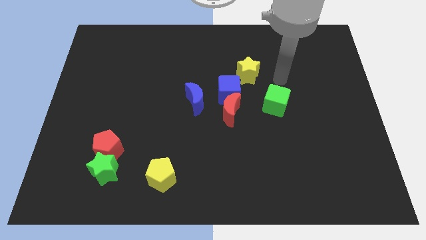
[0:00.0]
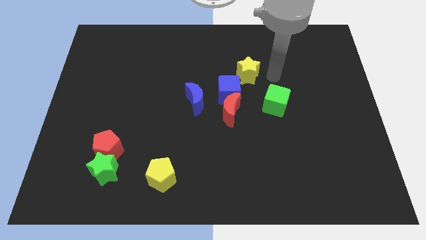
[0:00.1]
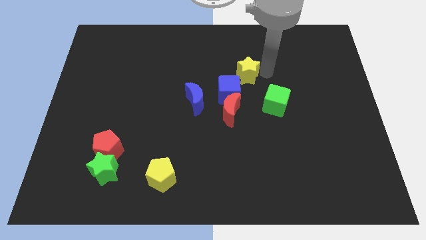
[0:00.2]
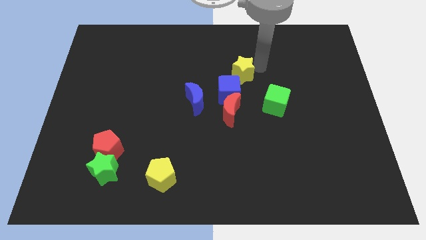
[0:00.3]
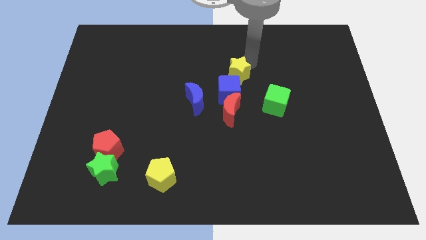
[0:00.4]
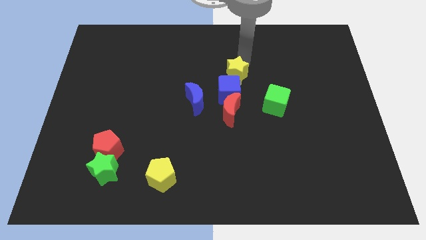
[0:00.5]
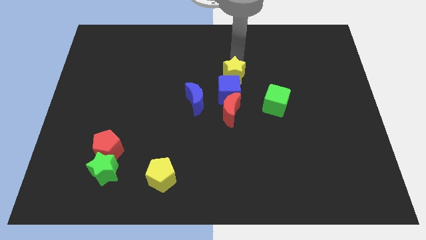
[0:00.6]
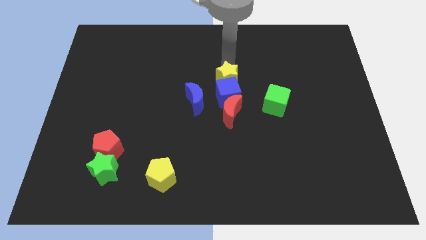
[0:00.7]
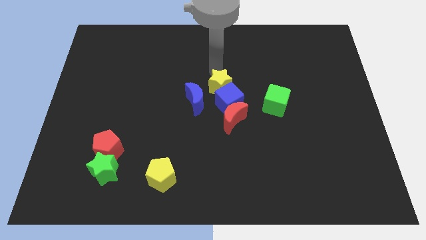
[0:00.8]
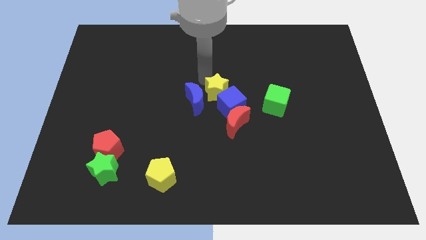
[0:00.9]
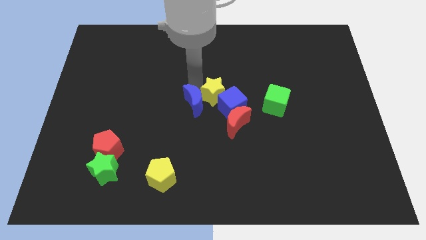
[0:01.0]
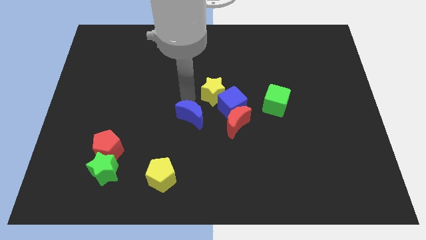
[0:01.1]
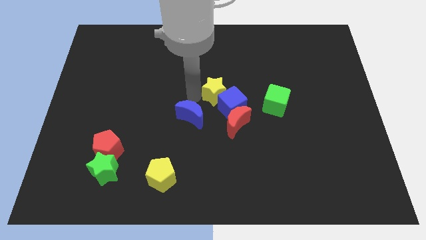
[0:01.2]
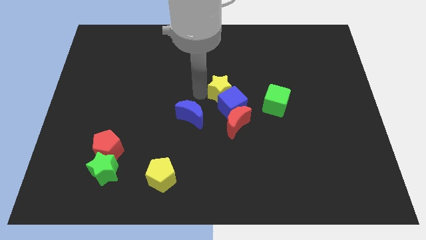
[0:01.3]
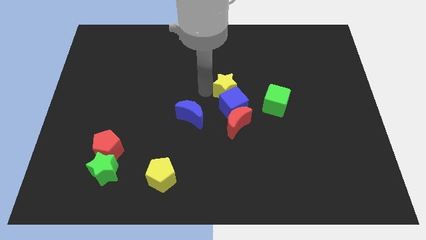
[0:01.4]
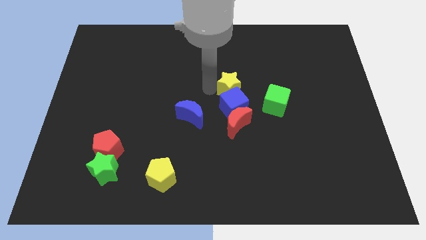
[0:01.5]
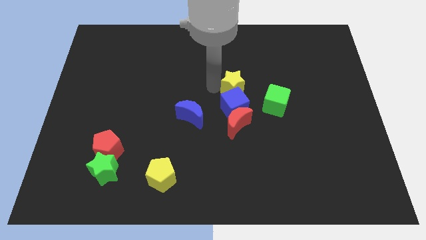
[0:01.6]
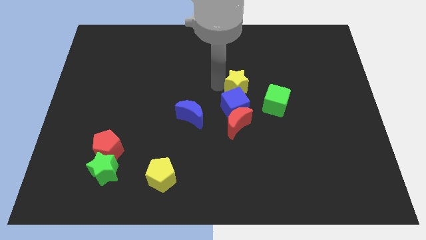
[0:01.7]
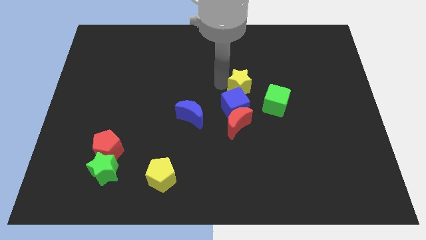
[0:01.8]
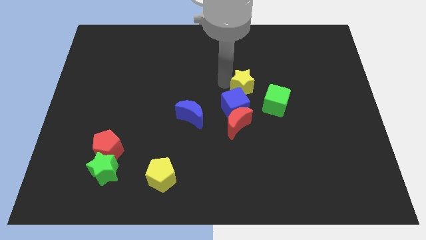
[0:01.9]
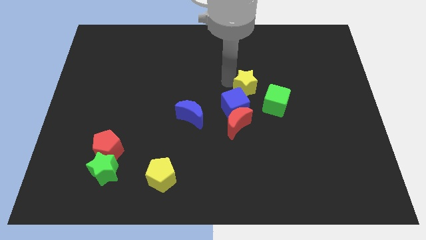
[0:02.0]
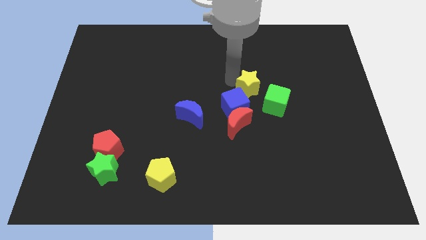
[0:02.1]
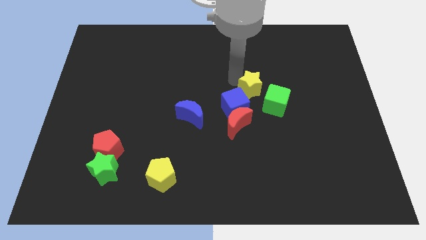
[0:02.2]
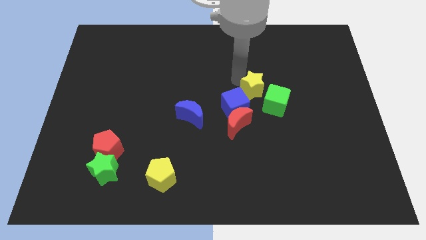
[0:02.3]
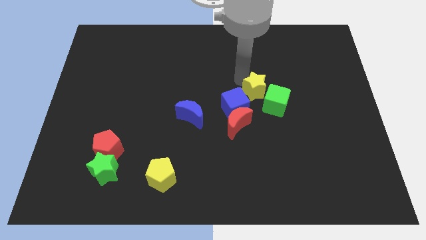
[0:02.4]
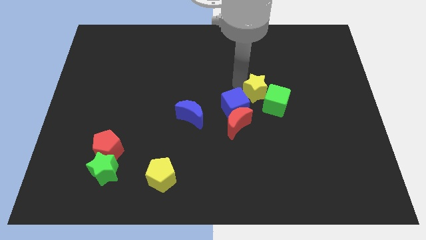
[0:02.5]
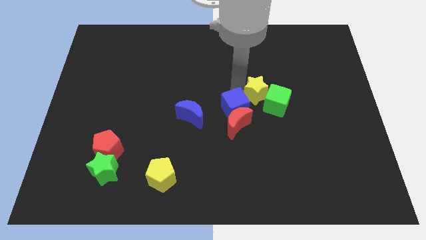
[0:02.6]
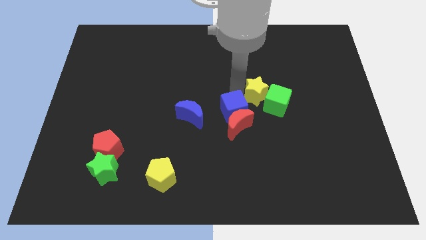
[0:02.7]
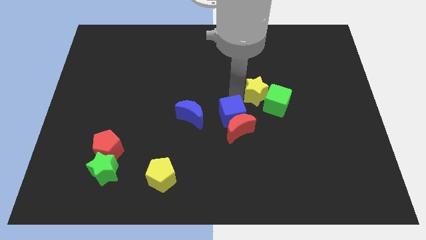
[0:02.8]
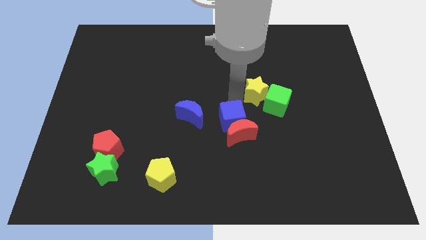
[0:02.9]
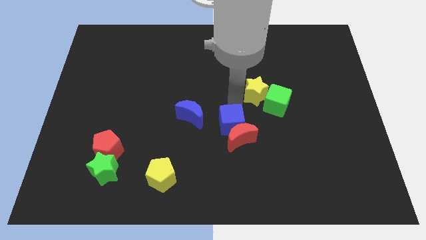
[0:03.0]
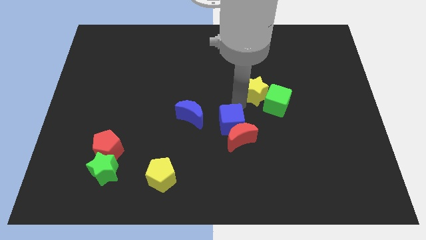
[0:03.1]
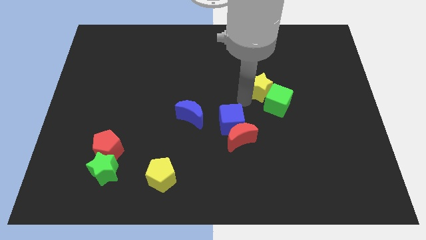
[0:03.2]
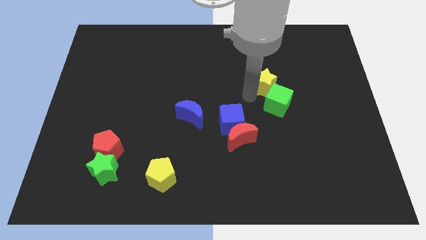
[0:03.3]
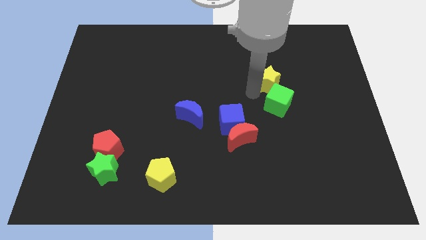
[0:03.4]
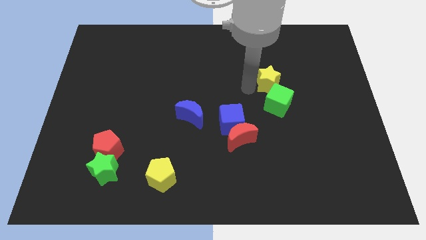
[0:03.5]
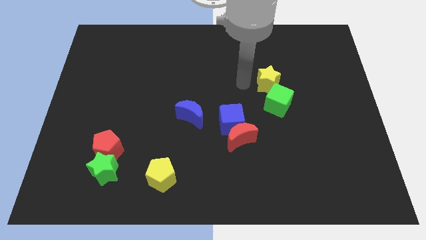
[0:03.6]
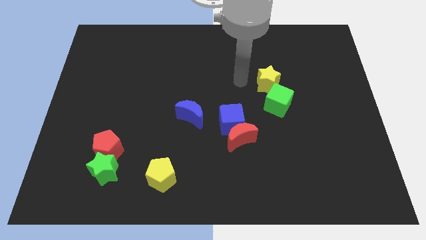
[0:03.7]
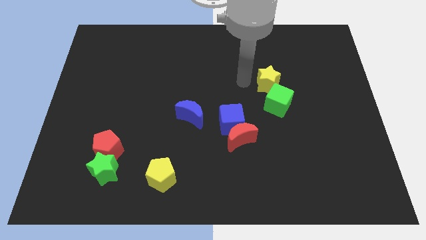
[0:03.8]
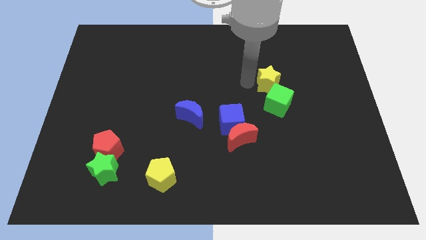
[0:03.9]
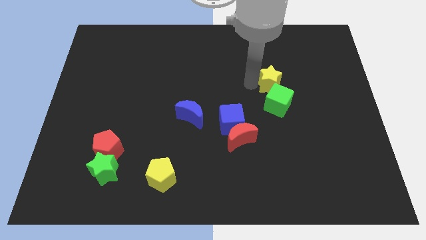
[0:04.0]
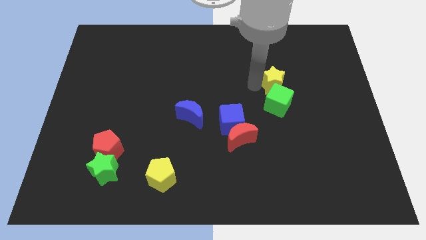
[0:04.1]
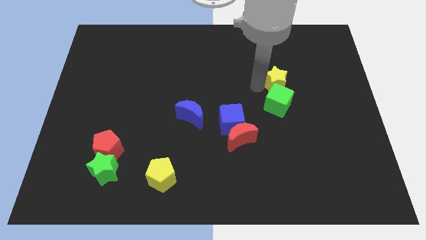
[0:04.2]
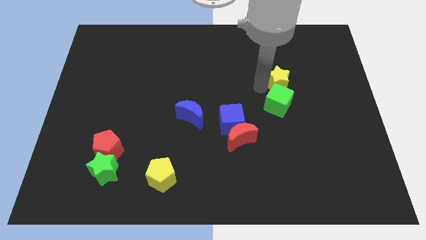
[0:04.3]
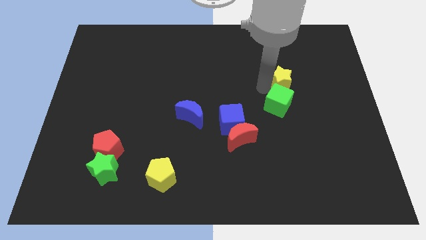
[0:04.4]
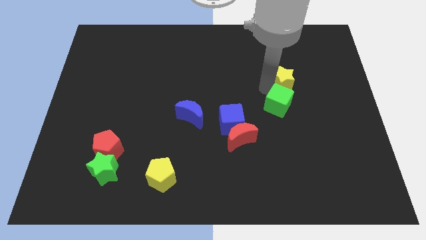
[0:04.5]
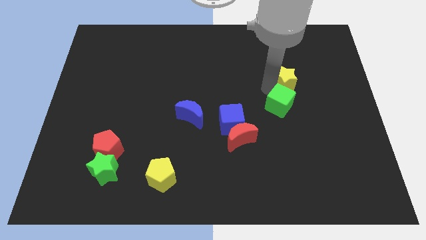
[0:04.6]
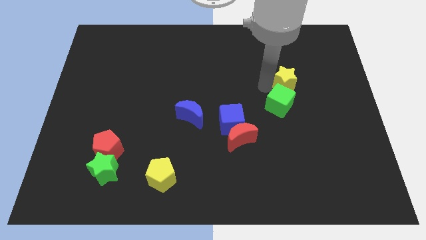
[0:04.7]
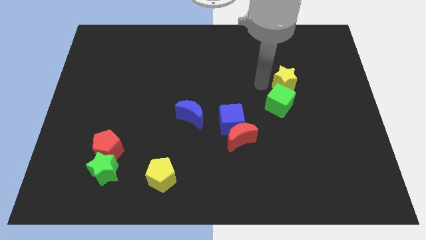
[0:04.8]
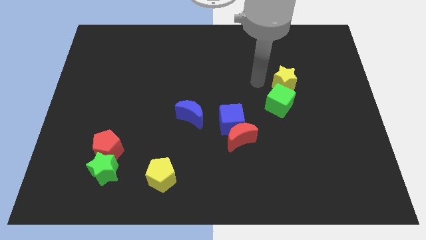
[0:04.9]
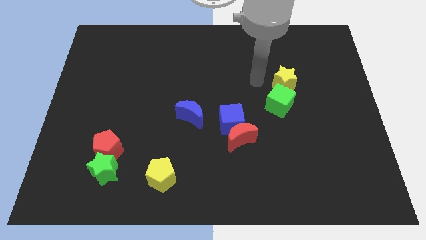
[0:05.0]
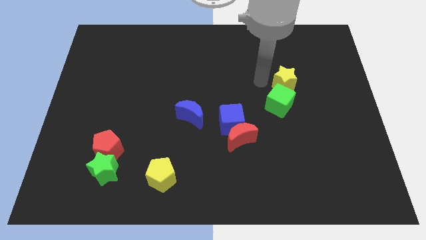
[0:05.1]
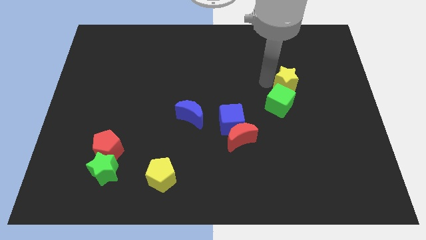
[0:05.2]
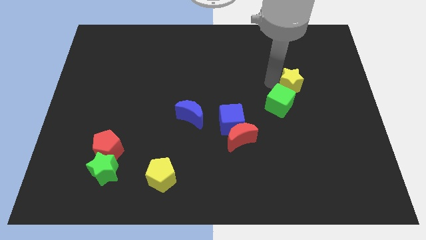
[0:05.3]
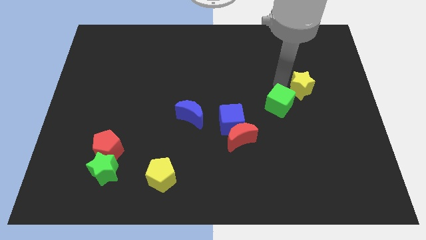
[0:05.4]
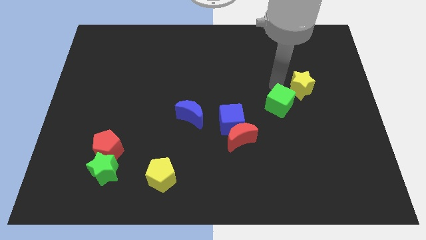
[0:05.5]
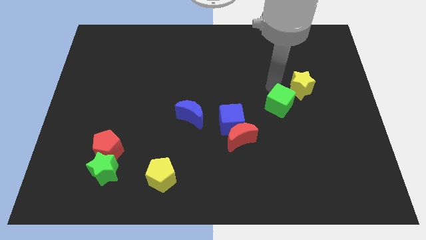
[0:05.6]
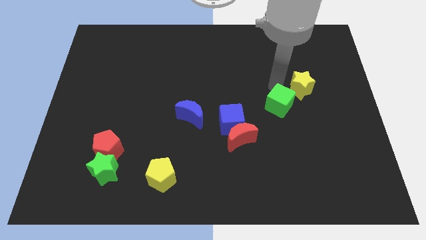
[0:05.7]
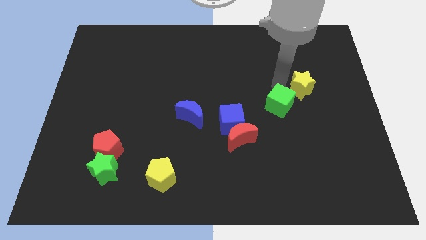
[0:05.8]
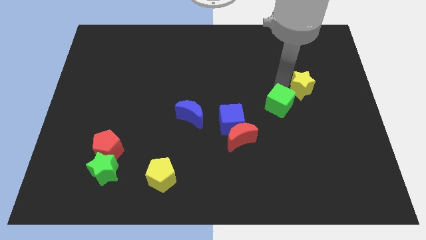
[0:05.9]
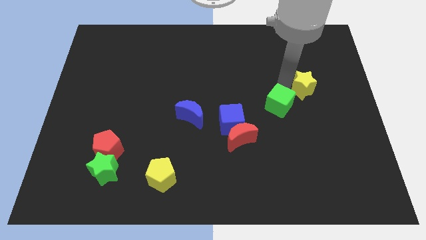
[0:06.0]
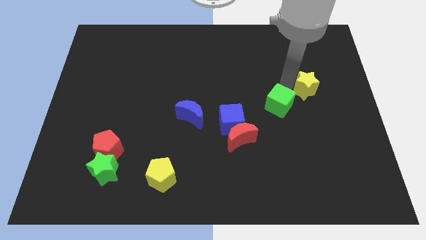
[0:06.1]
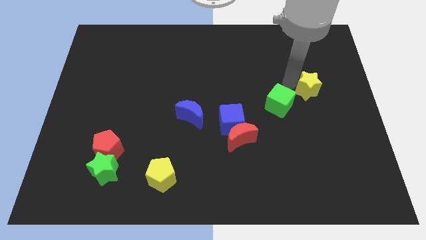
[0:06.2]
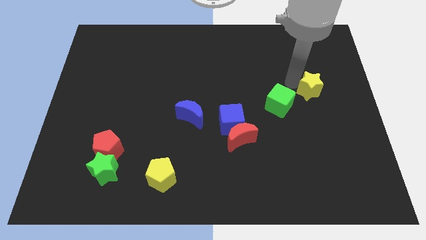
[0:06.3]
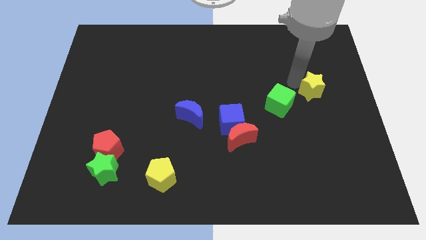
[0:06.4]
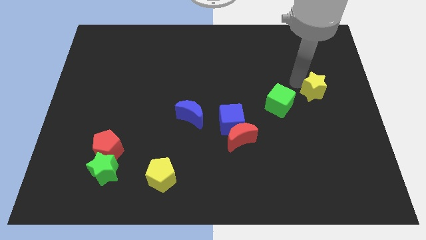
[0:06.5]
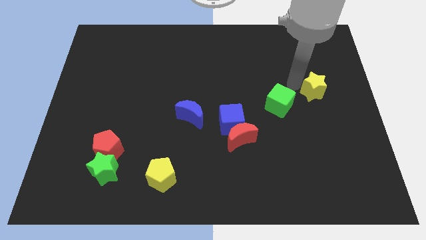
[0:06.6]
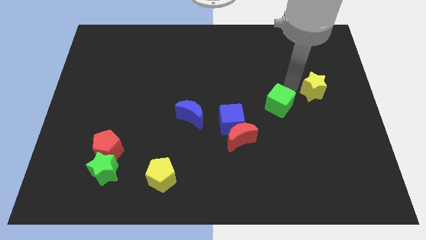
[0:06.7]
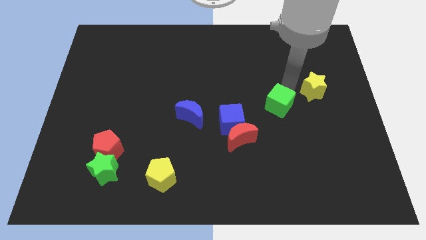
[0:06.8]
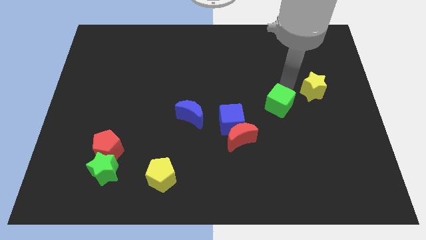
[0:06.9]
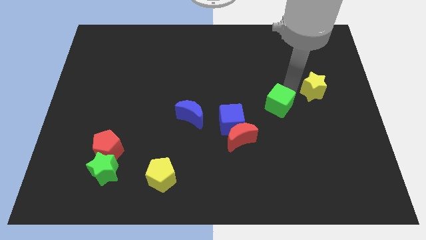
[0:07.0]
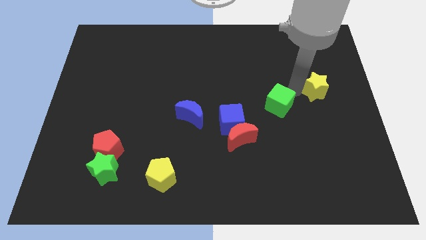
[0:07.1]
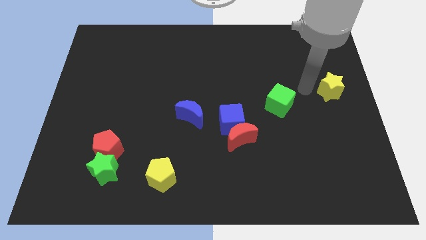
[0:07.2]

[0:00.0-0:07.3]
put the yellow star to the center right

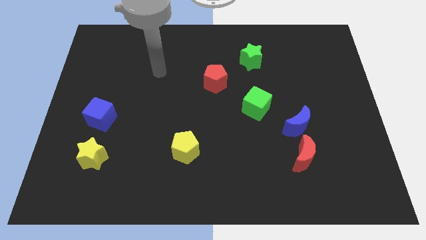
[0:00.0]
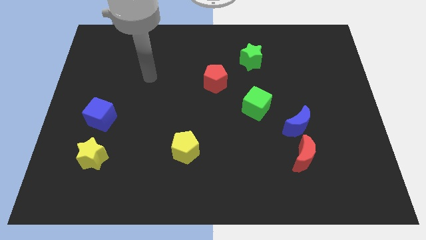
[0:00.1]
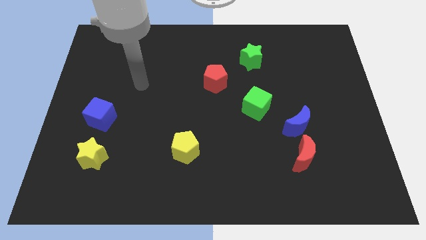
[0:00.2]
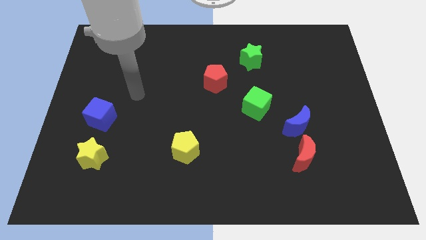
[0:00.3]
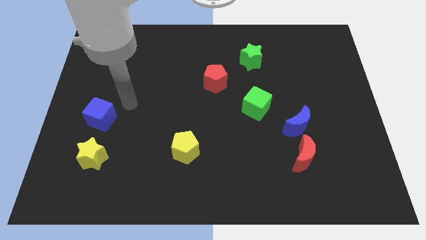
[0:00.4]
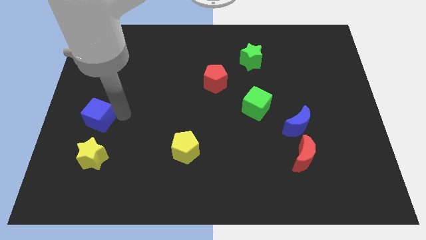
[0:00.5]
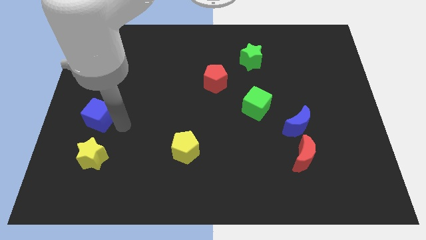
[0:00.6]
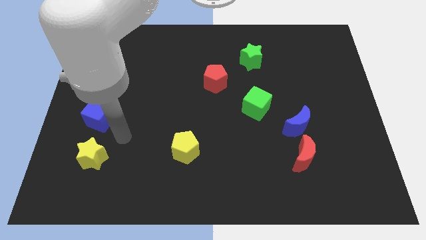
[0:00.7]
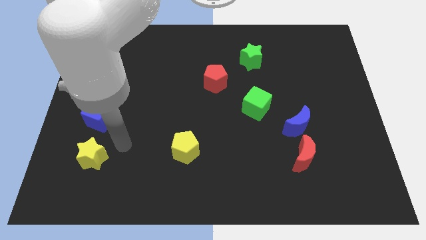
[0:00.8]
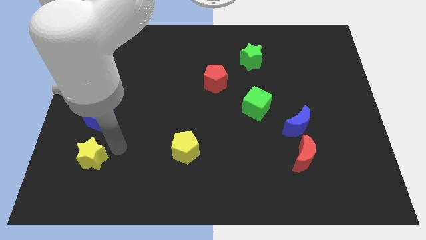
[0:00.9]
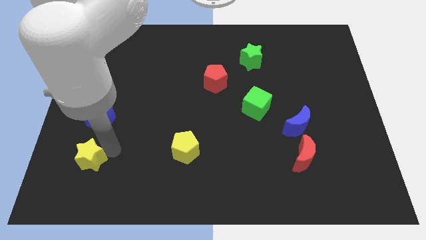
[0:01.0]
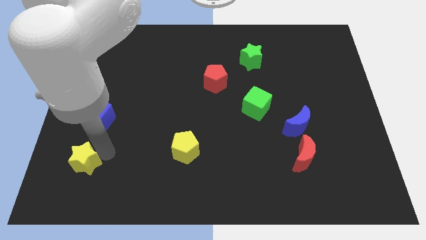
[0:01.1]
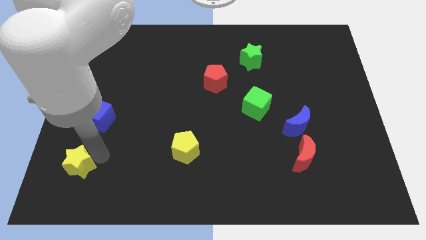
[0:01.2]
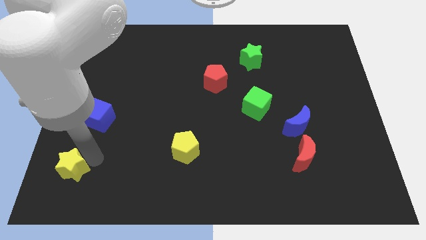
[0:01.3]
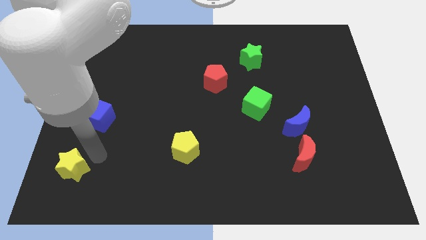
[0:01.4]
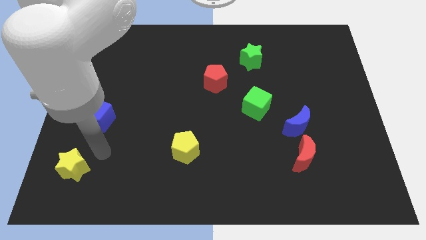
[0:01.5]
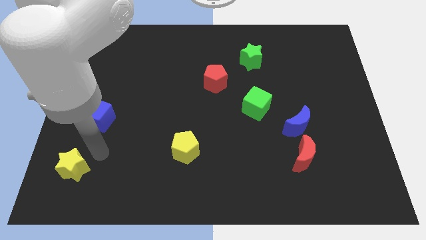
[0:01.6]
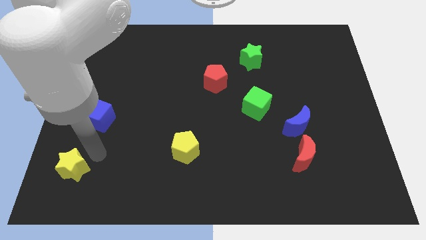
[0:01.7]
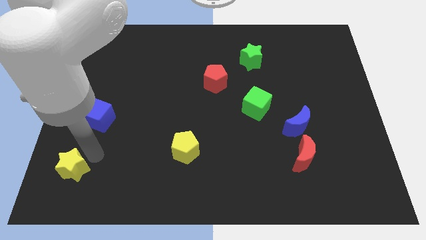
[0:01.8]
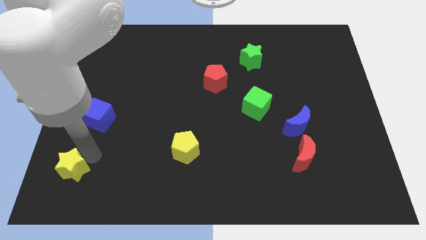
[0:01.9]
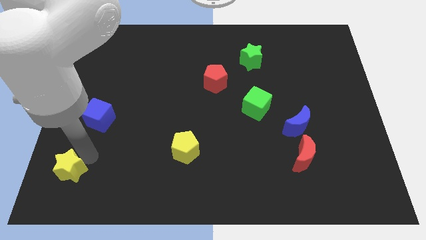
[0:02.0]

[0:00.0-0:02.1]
move the yellow star to the lower left corner
